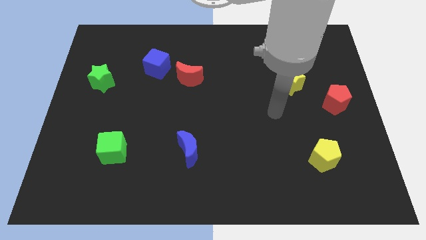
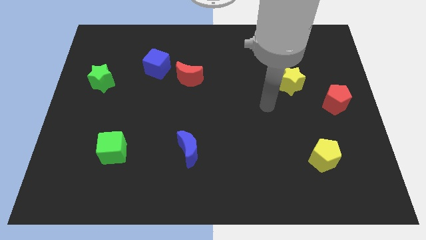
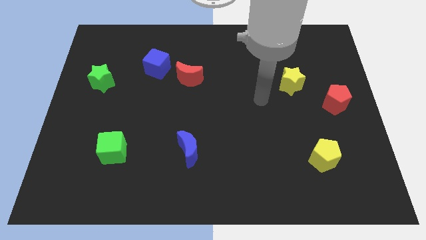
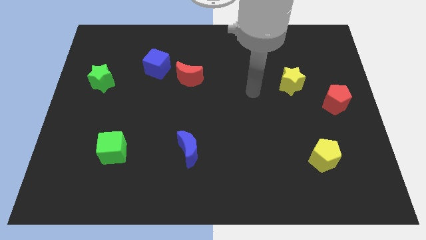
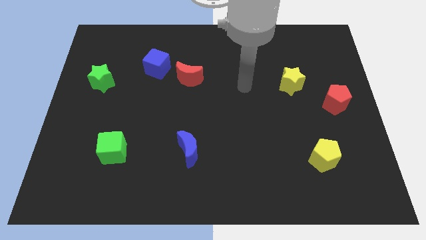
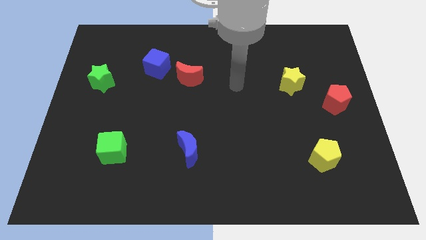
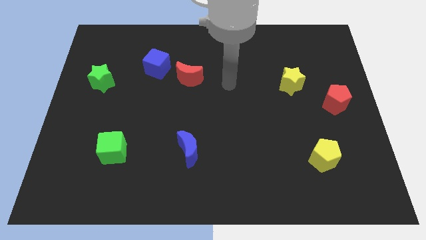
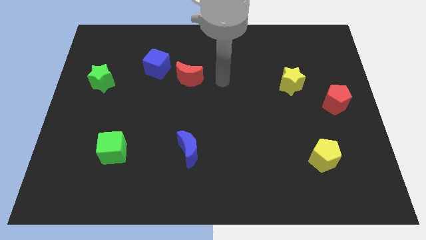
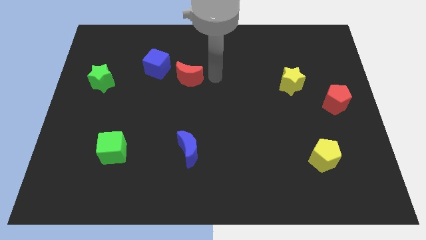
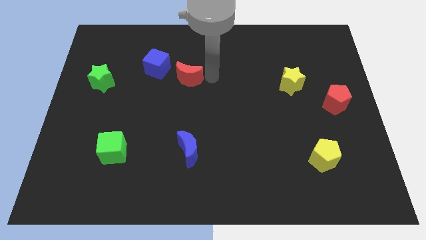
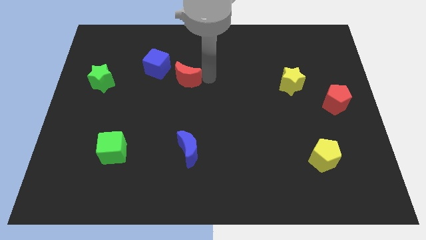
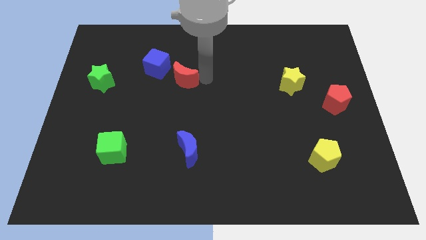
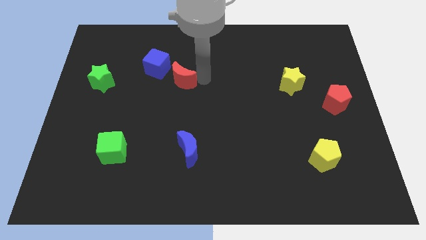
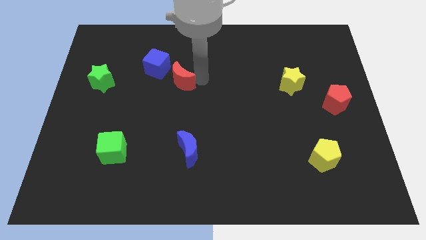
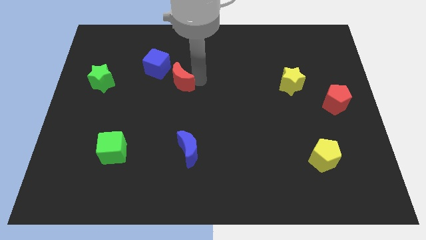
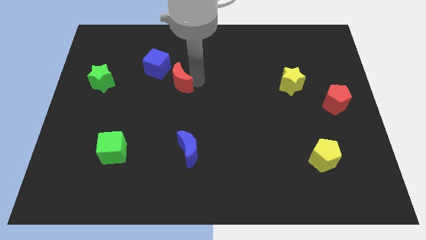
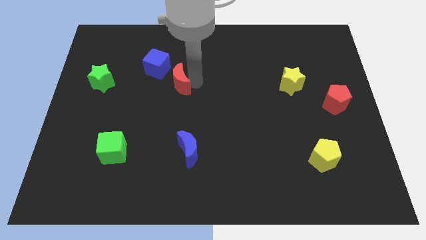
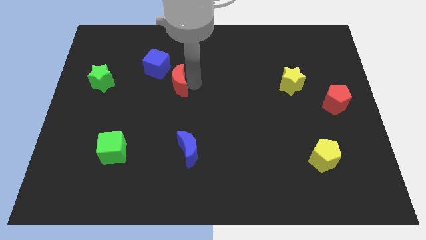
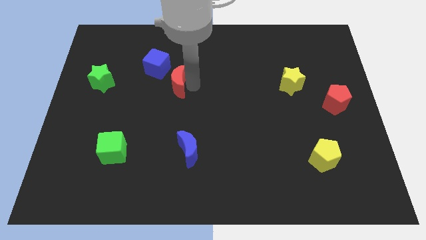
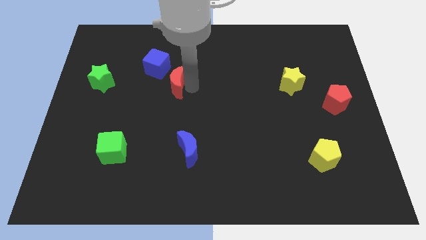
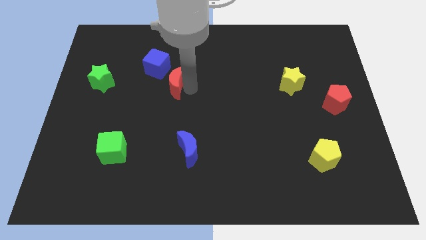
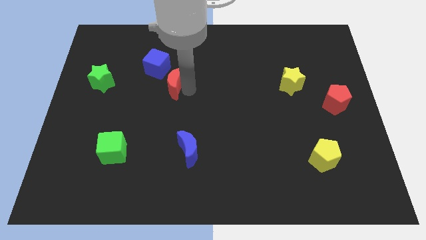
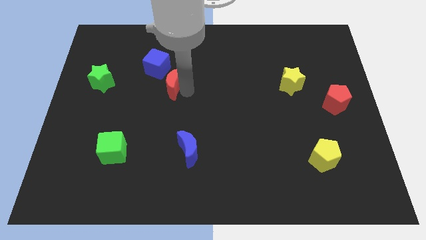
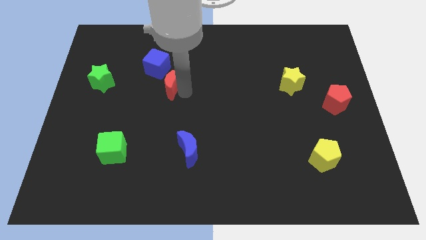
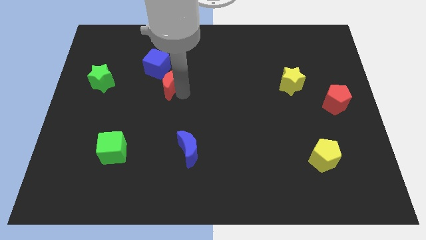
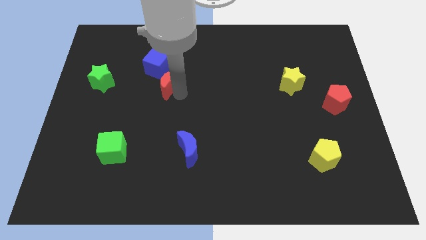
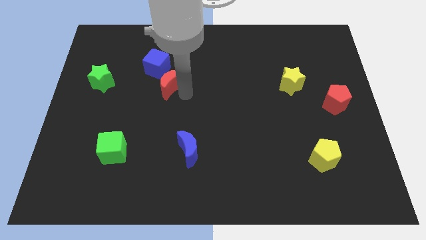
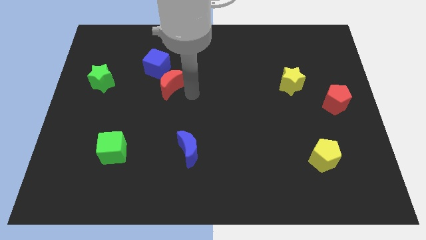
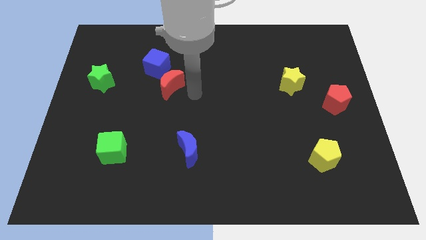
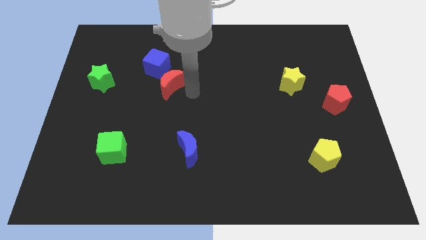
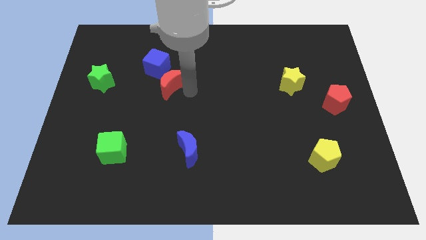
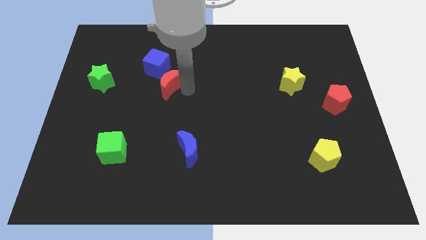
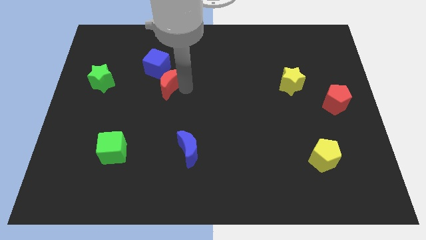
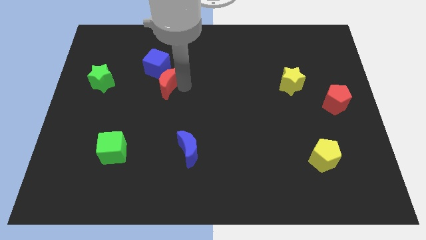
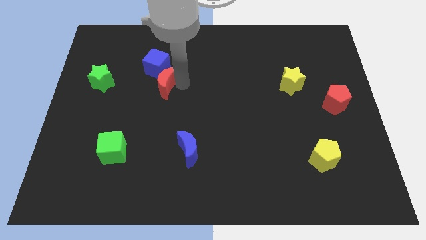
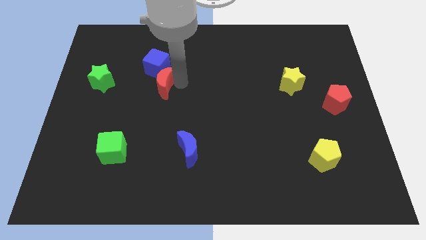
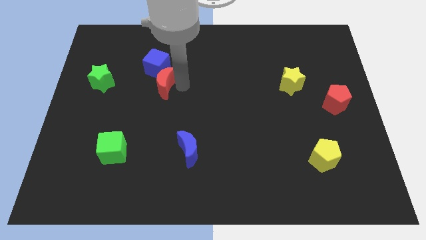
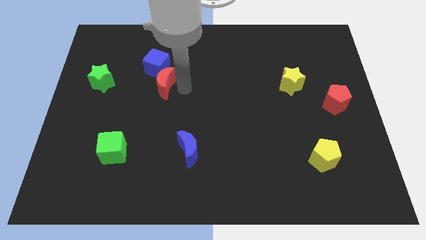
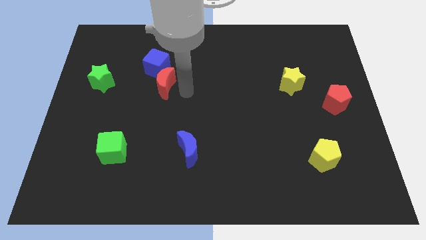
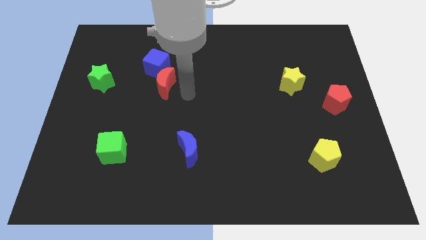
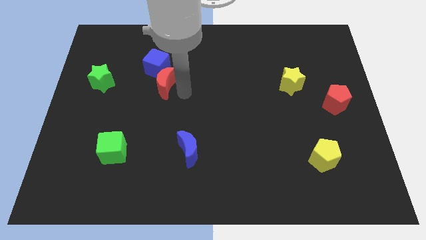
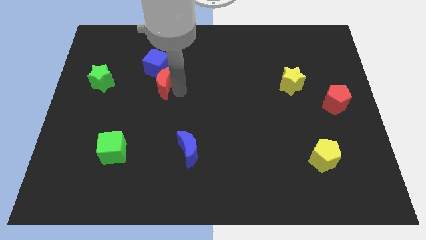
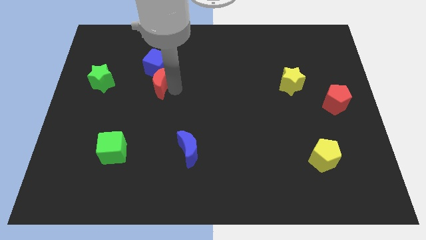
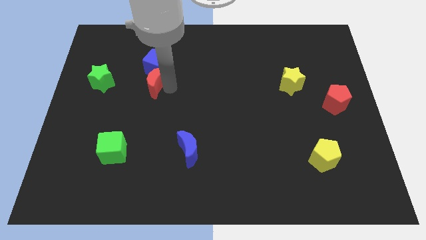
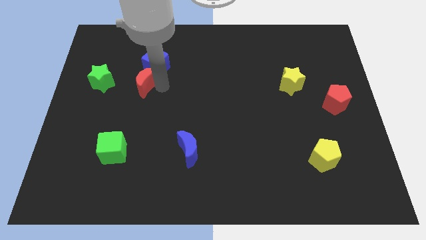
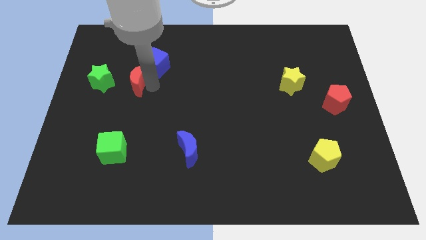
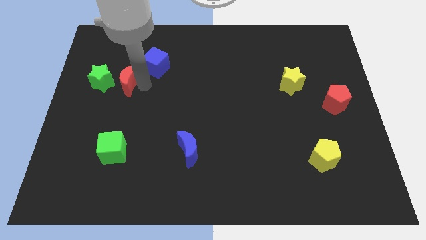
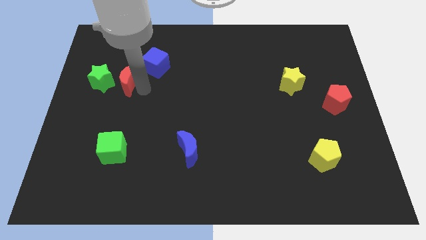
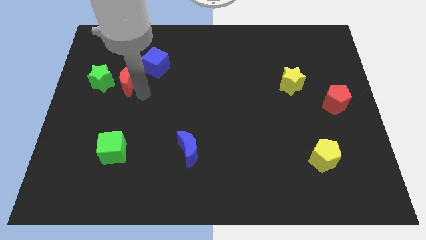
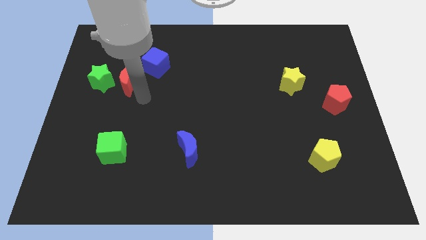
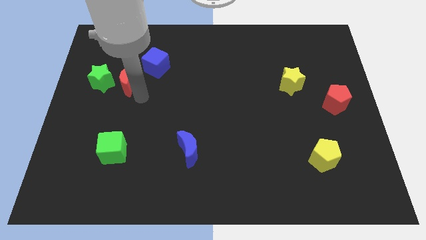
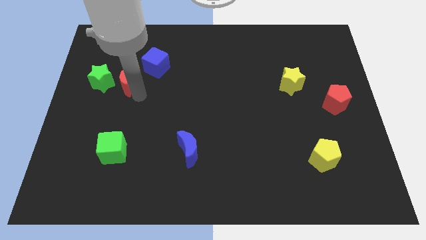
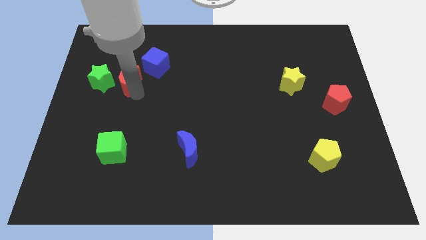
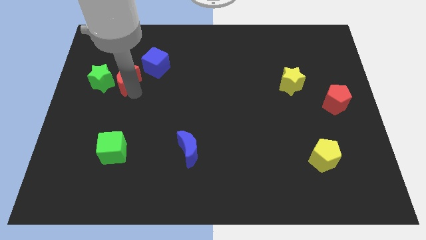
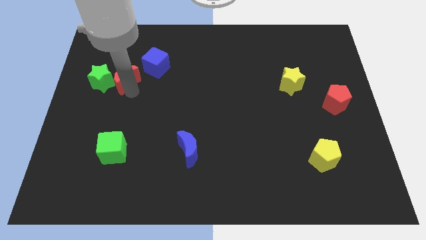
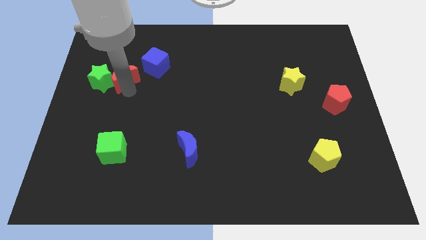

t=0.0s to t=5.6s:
push the red moon left of the blue cube

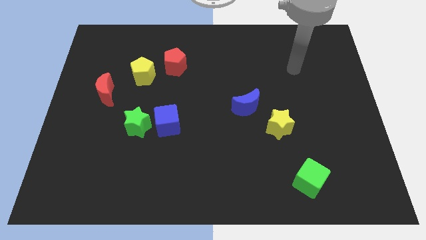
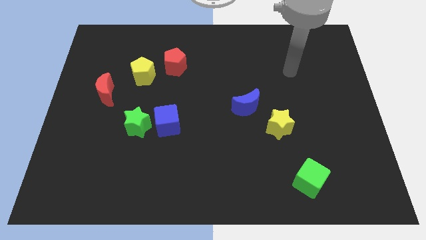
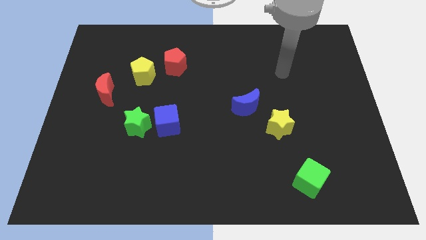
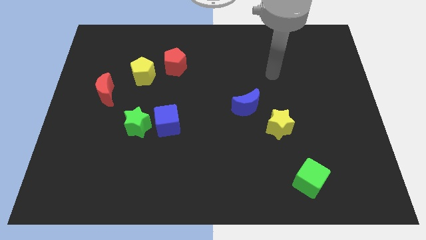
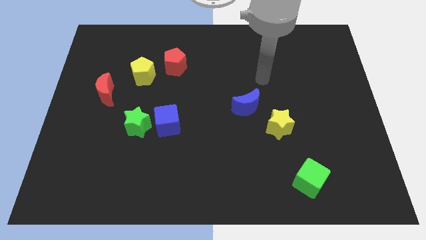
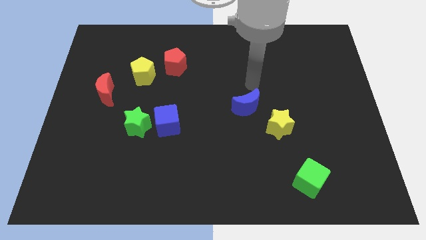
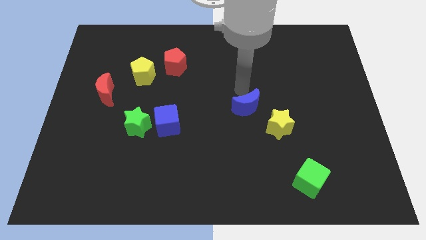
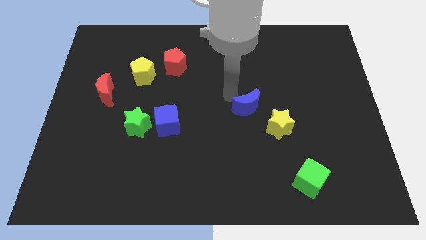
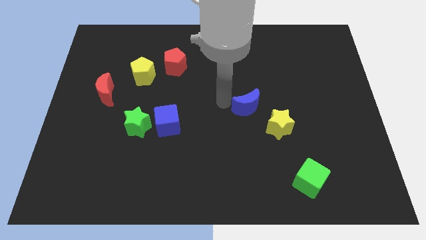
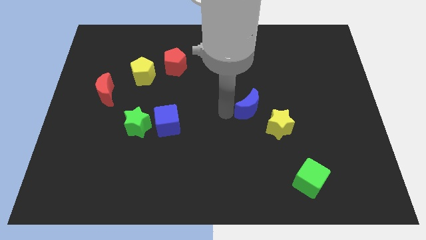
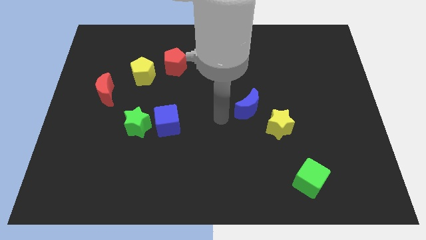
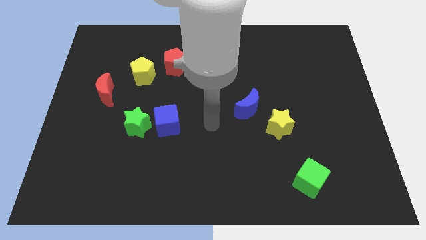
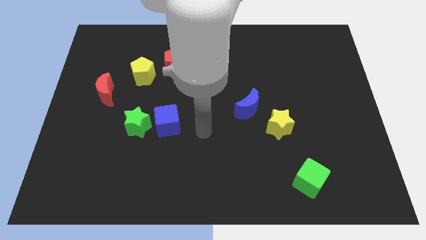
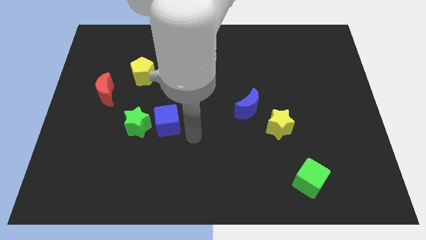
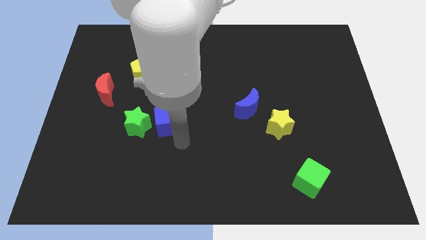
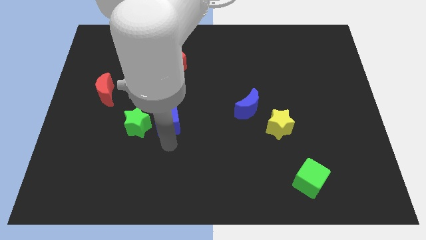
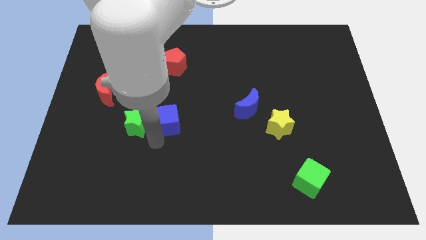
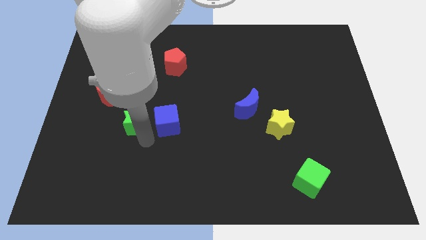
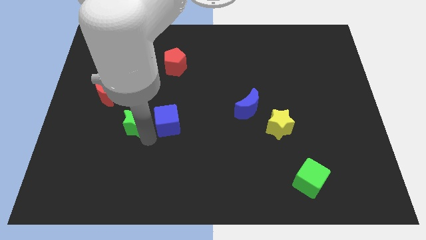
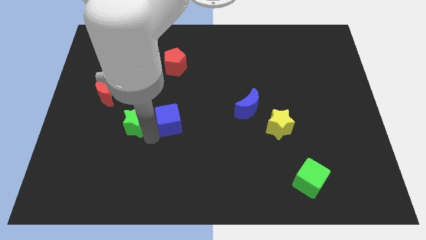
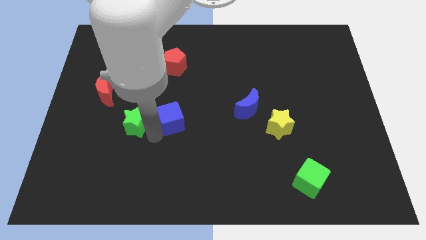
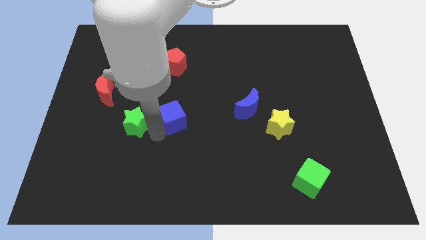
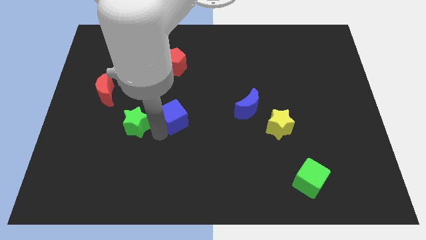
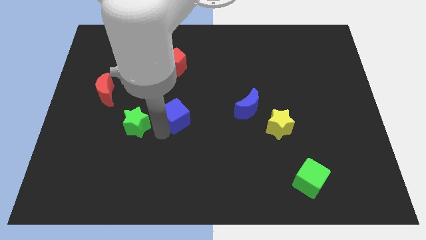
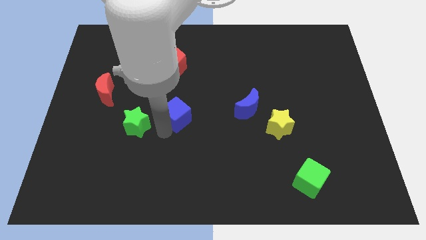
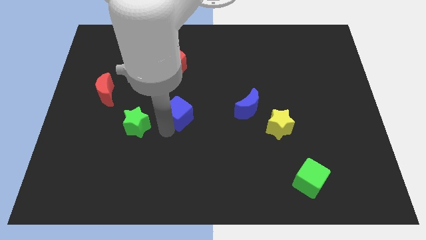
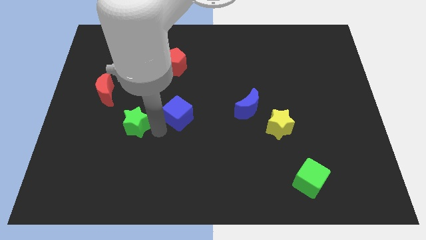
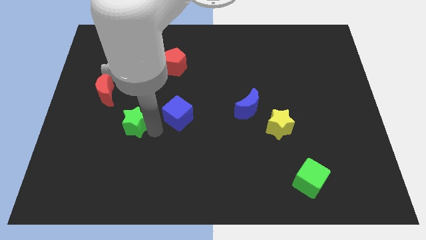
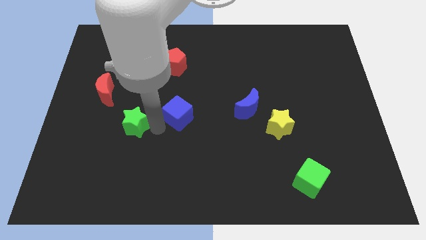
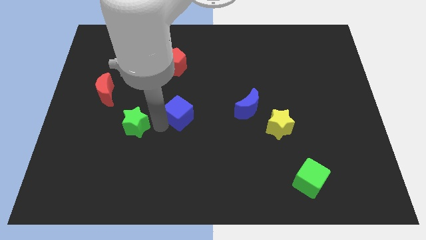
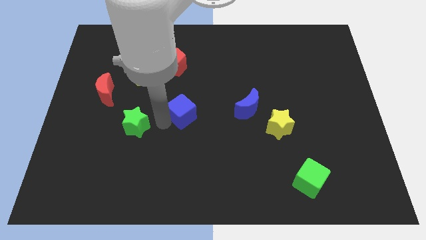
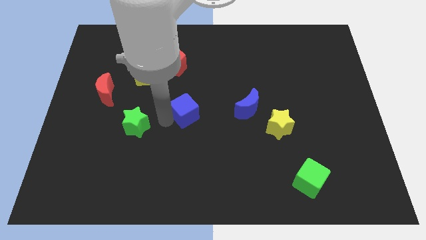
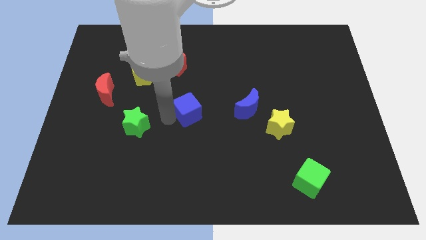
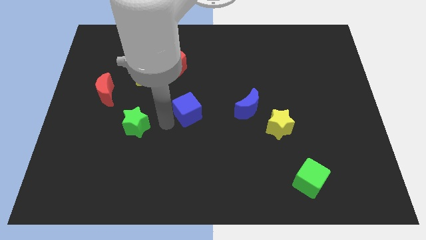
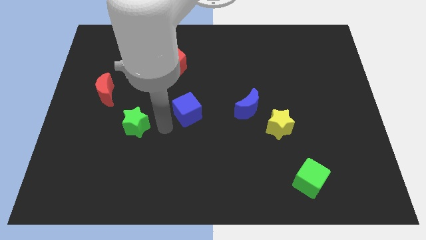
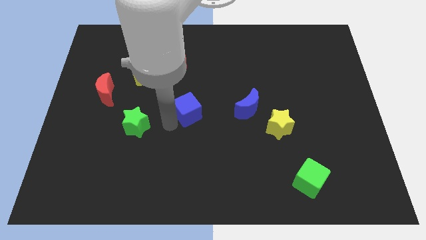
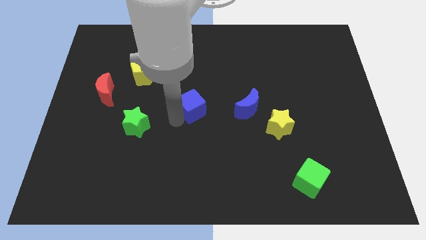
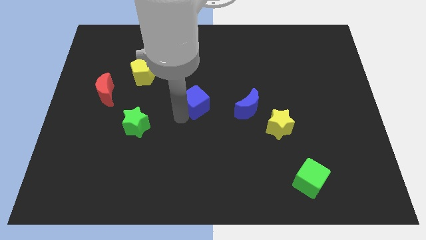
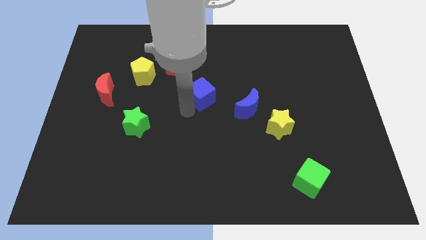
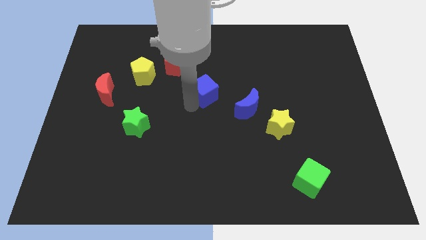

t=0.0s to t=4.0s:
push the blue cube to the top left of the blue moon
